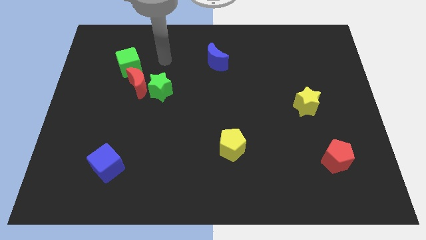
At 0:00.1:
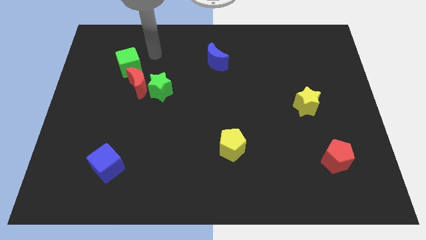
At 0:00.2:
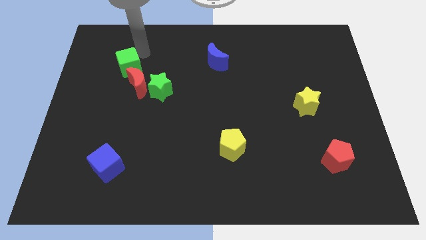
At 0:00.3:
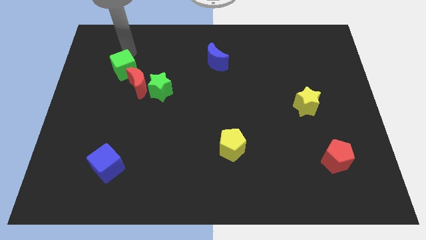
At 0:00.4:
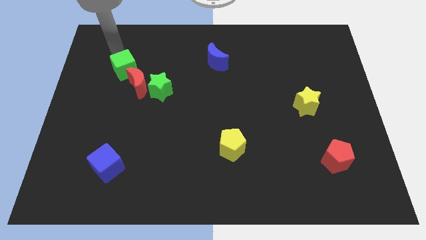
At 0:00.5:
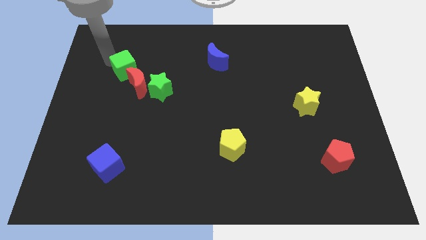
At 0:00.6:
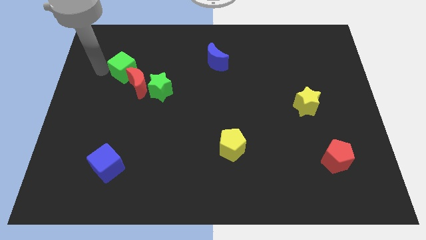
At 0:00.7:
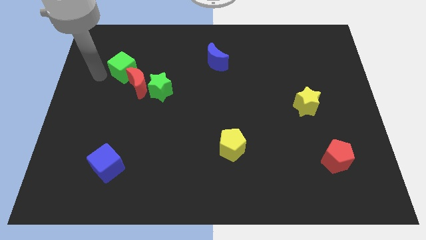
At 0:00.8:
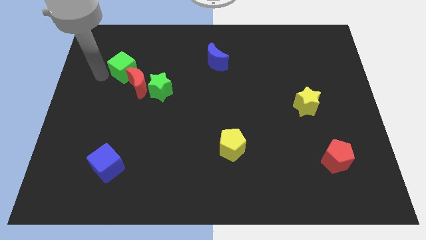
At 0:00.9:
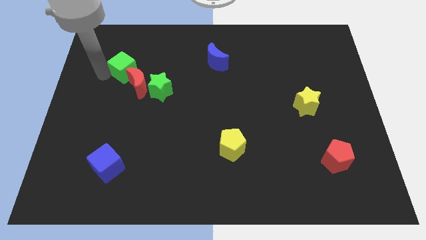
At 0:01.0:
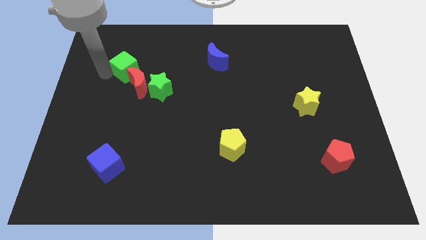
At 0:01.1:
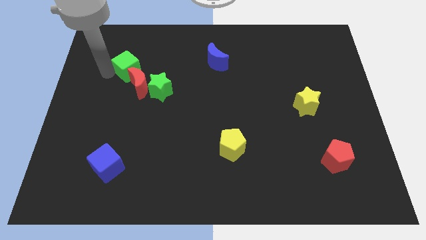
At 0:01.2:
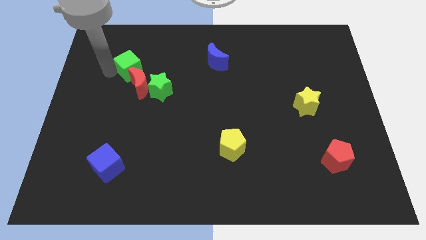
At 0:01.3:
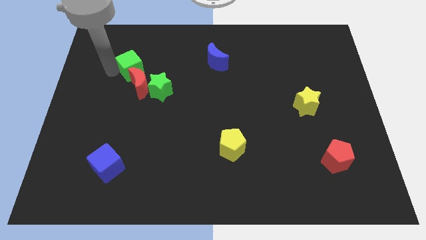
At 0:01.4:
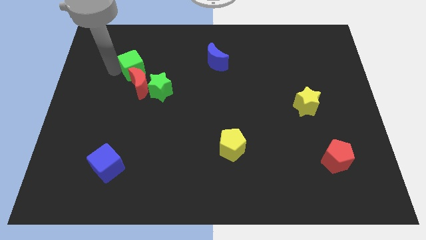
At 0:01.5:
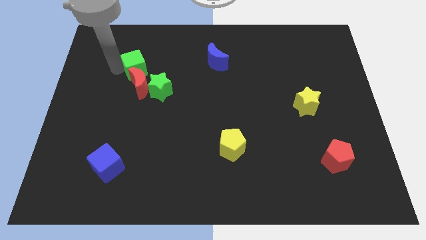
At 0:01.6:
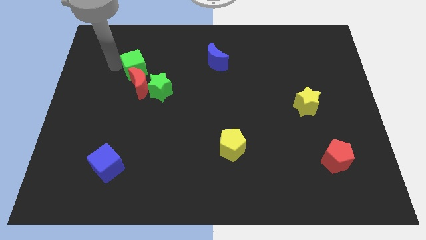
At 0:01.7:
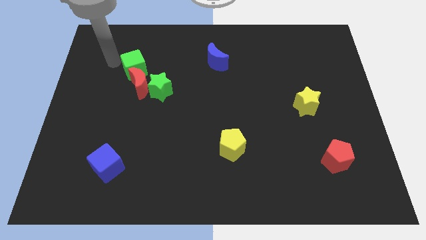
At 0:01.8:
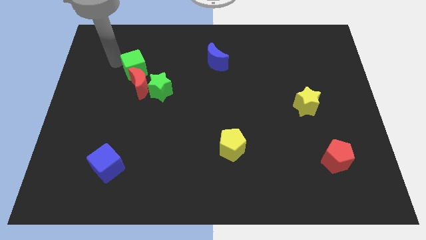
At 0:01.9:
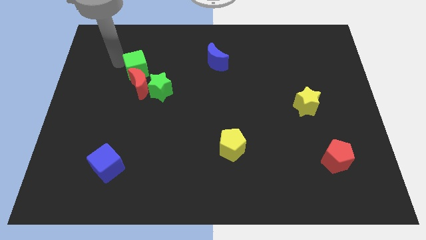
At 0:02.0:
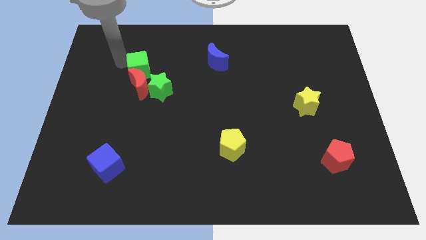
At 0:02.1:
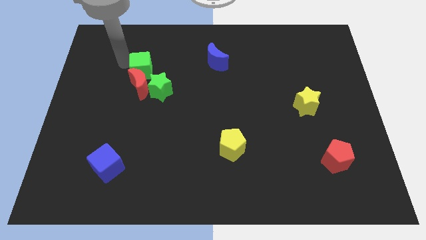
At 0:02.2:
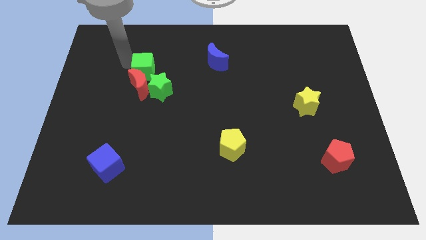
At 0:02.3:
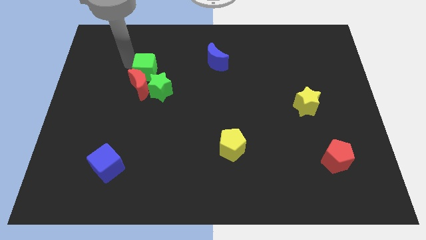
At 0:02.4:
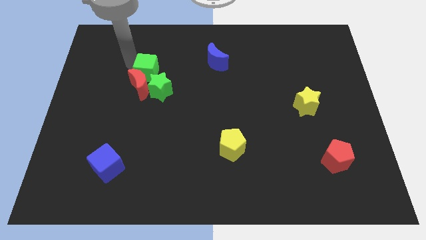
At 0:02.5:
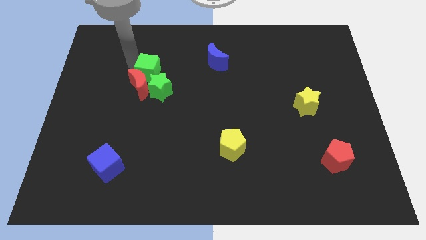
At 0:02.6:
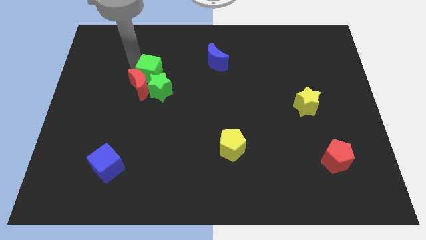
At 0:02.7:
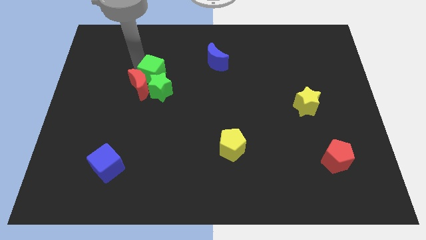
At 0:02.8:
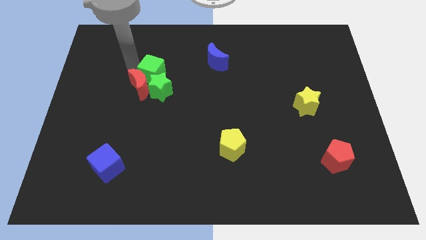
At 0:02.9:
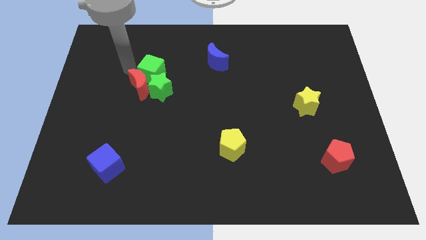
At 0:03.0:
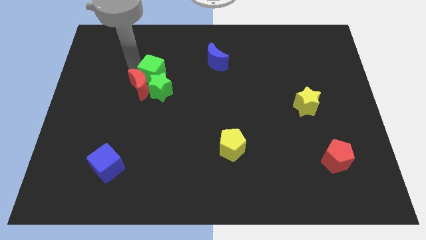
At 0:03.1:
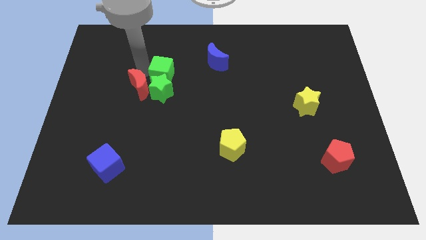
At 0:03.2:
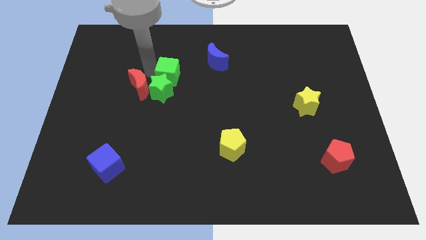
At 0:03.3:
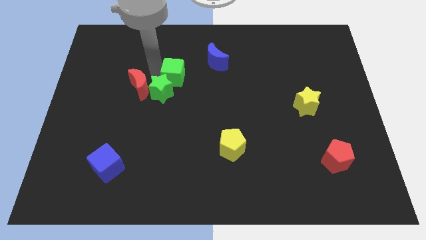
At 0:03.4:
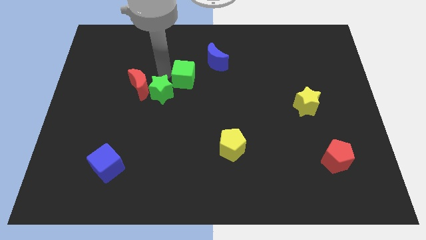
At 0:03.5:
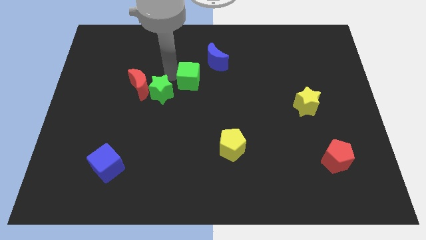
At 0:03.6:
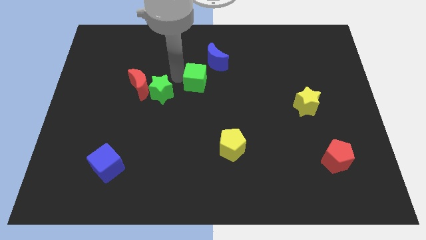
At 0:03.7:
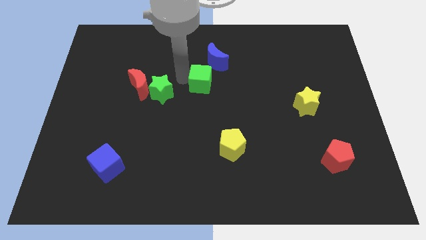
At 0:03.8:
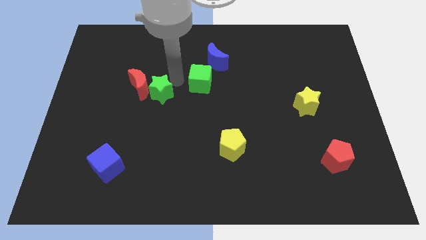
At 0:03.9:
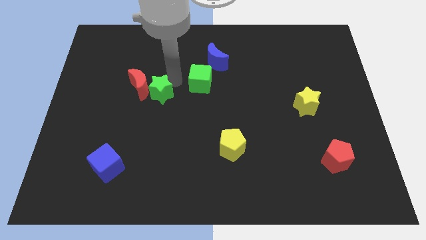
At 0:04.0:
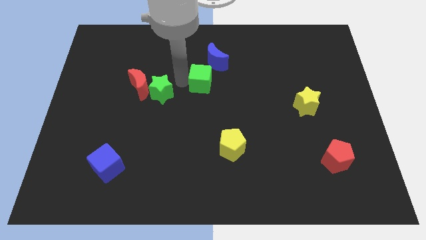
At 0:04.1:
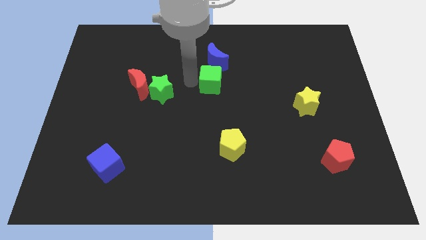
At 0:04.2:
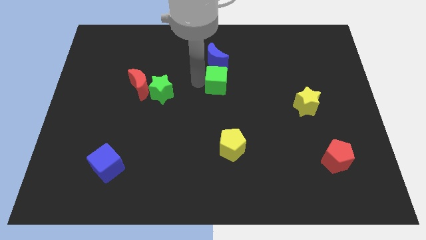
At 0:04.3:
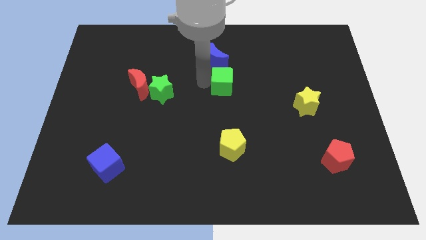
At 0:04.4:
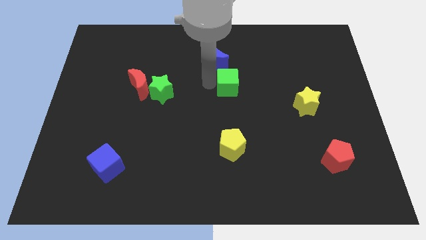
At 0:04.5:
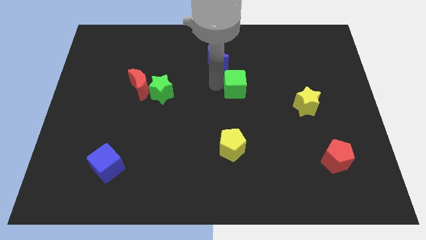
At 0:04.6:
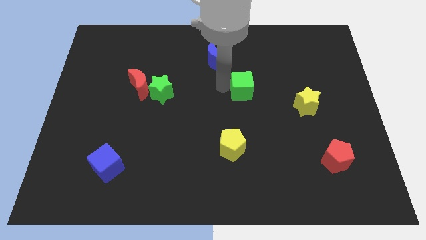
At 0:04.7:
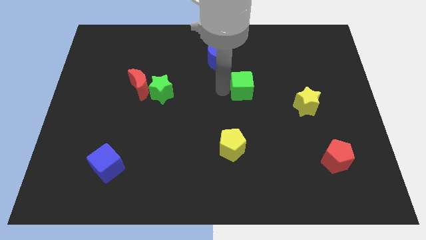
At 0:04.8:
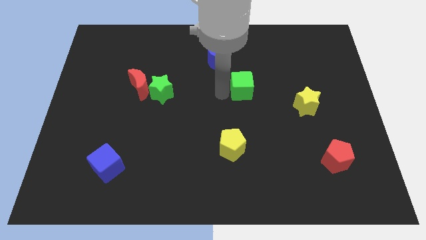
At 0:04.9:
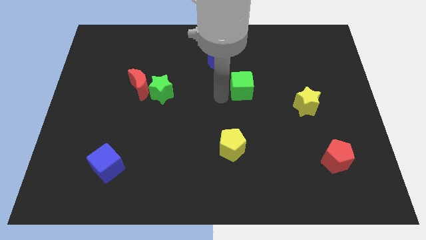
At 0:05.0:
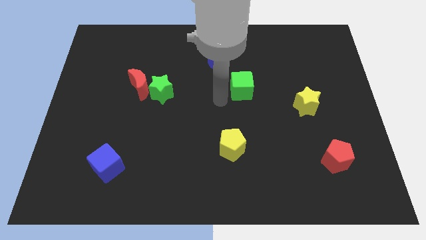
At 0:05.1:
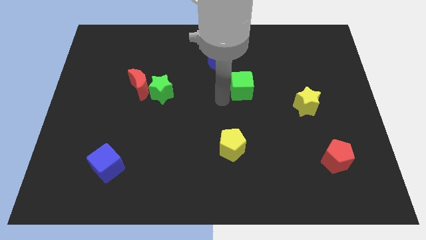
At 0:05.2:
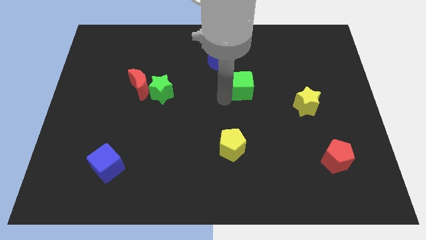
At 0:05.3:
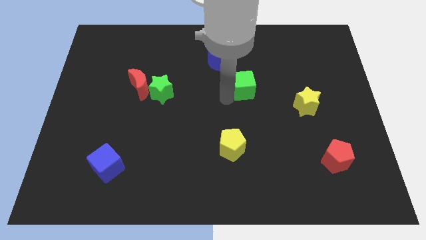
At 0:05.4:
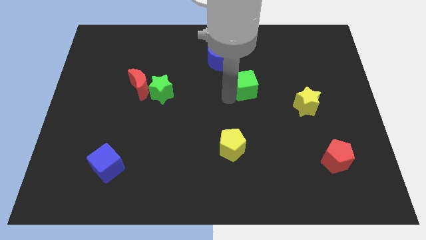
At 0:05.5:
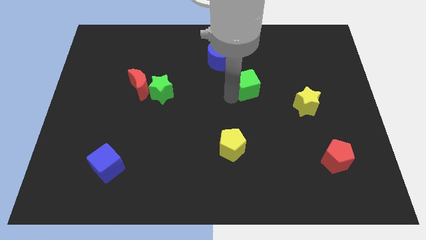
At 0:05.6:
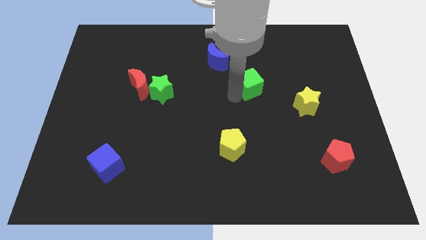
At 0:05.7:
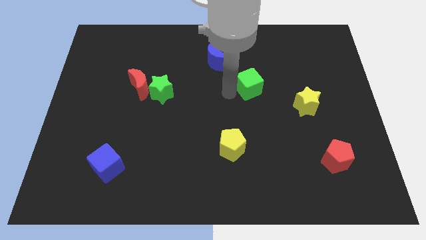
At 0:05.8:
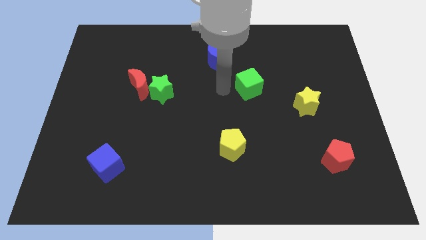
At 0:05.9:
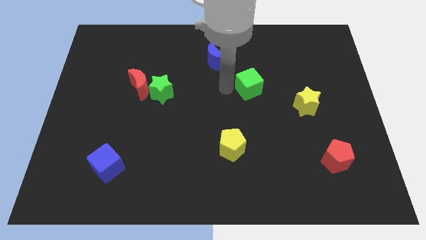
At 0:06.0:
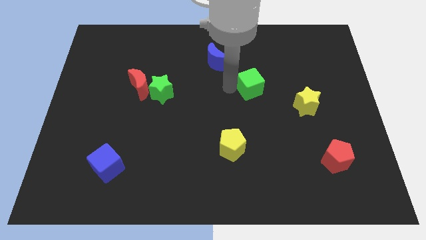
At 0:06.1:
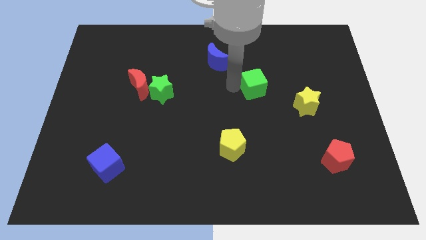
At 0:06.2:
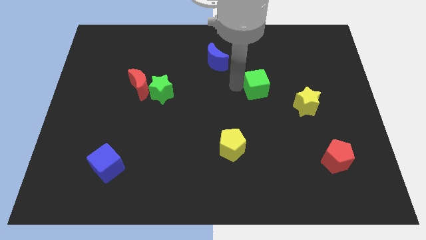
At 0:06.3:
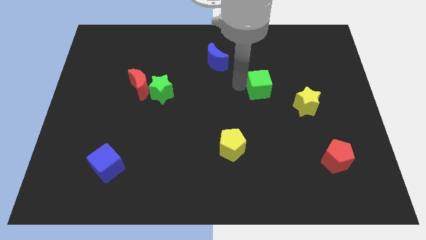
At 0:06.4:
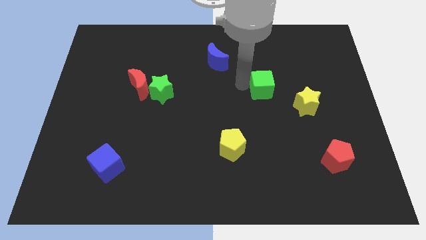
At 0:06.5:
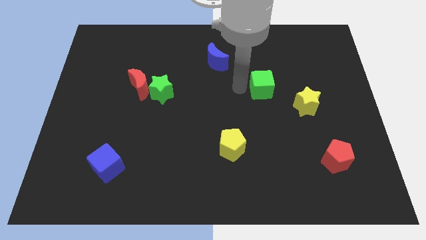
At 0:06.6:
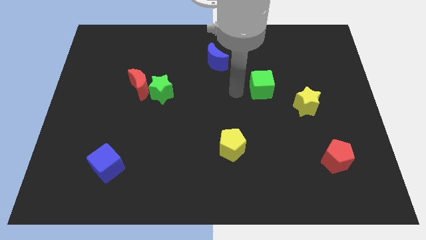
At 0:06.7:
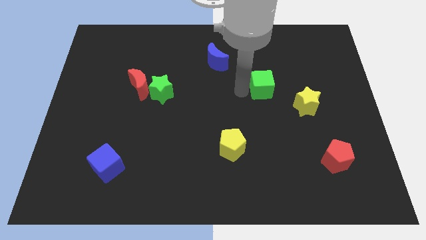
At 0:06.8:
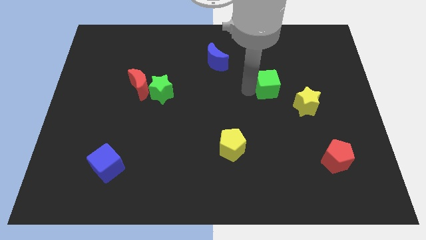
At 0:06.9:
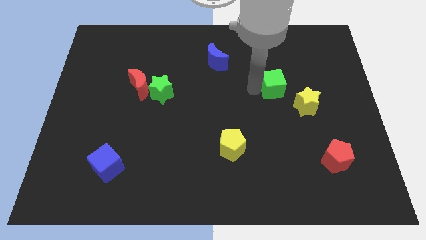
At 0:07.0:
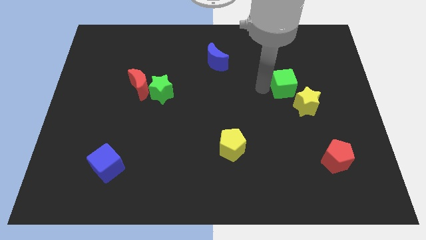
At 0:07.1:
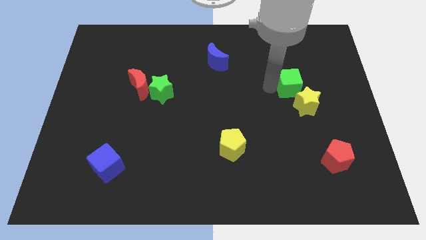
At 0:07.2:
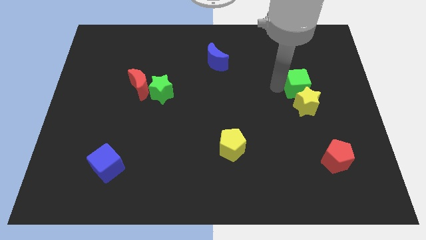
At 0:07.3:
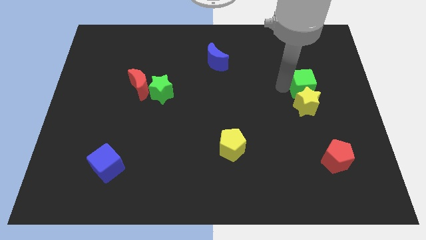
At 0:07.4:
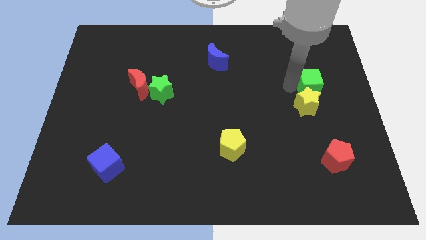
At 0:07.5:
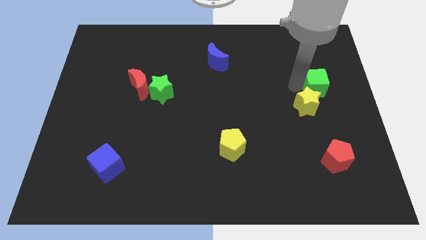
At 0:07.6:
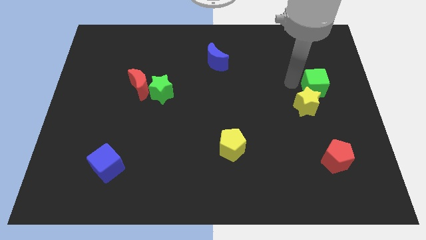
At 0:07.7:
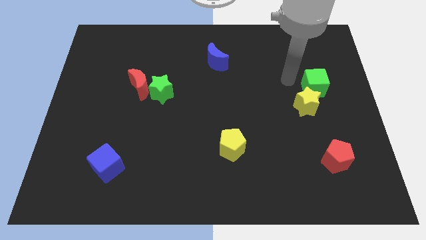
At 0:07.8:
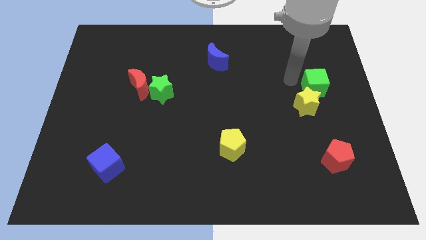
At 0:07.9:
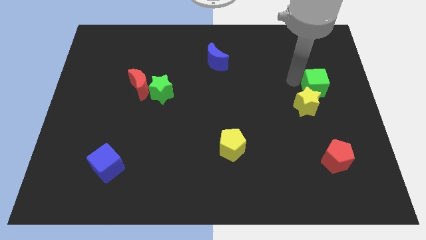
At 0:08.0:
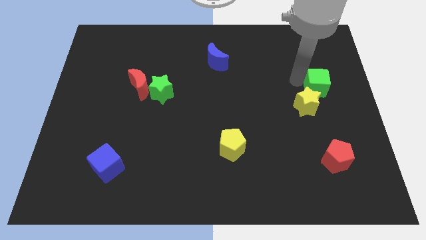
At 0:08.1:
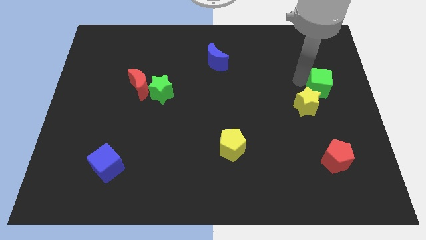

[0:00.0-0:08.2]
push the green cube to the right side of the board
